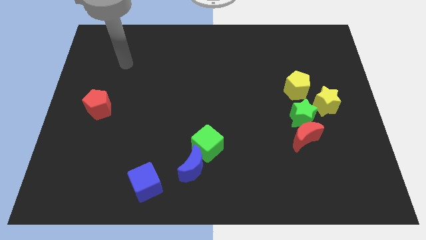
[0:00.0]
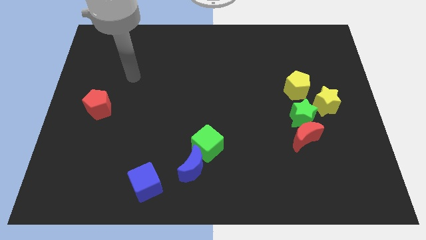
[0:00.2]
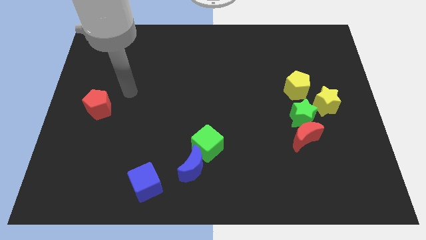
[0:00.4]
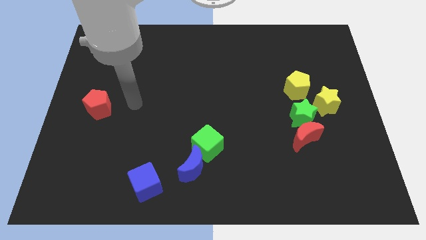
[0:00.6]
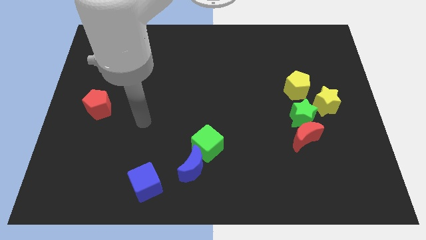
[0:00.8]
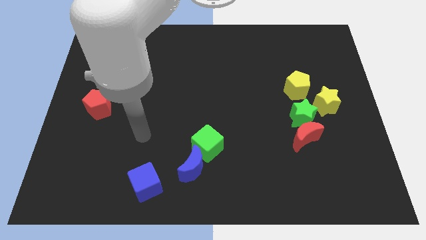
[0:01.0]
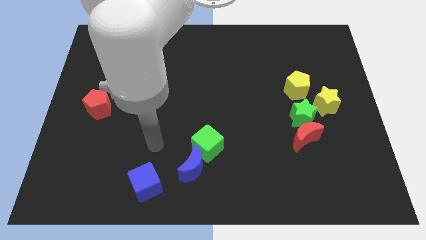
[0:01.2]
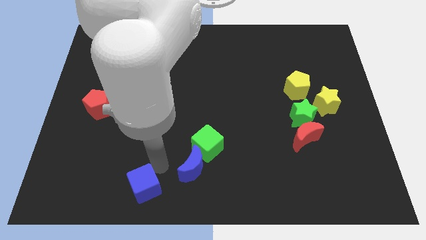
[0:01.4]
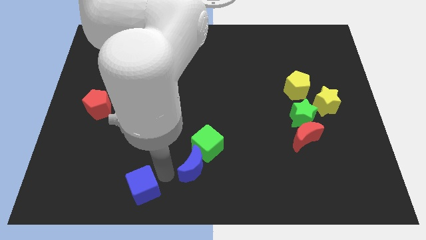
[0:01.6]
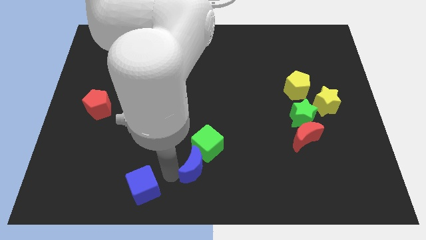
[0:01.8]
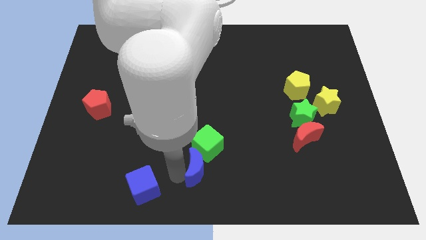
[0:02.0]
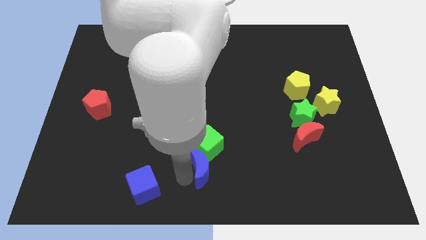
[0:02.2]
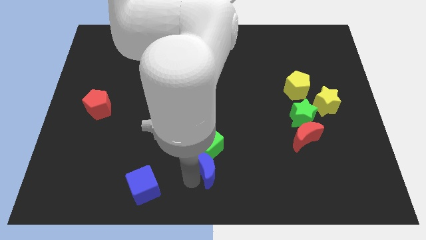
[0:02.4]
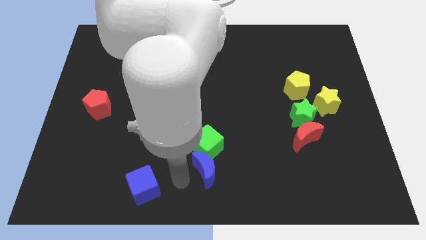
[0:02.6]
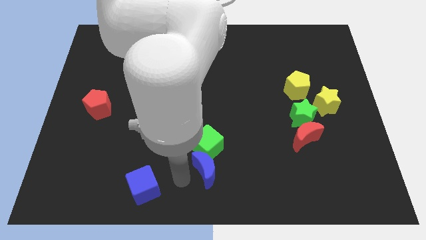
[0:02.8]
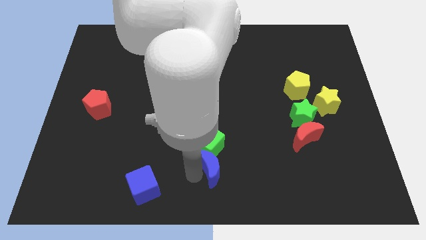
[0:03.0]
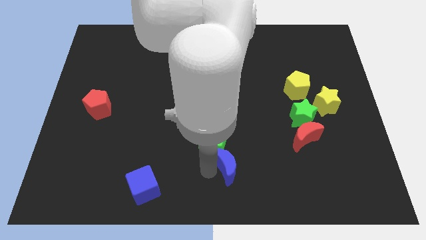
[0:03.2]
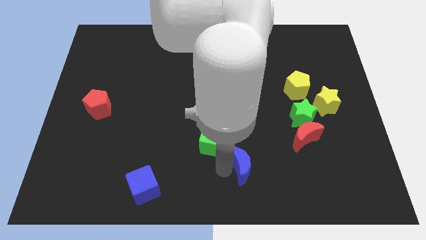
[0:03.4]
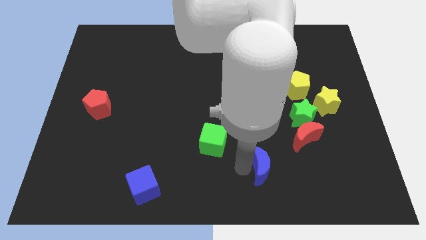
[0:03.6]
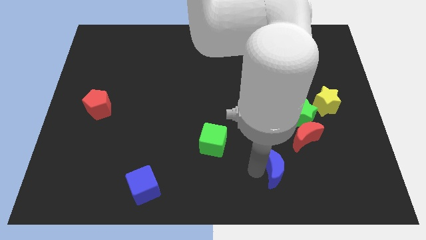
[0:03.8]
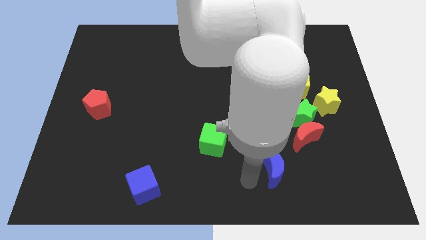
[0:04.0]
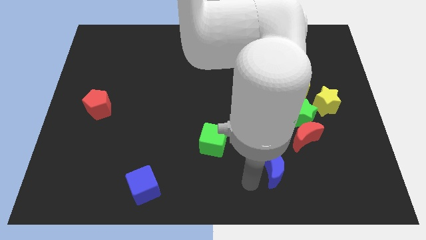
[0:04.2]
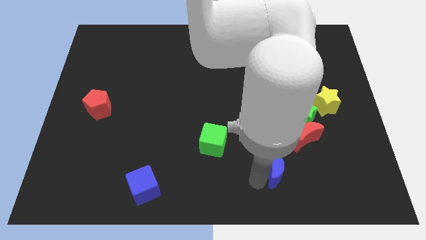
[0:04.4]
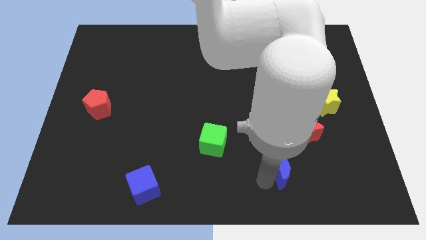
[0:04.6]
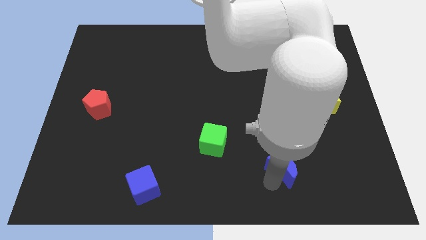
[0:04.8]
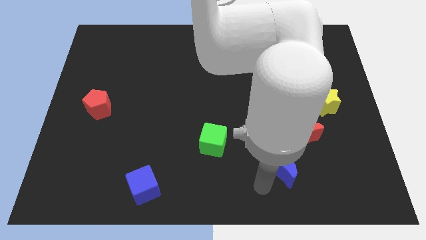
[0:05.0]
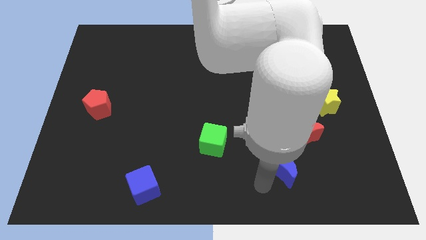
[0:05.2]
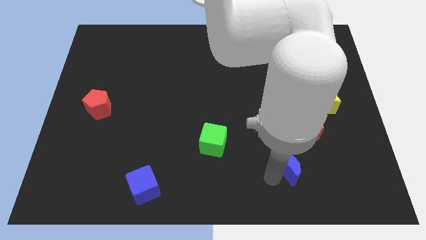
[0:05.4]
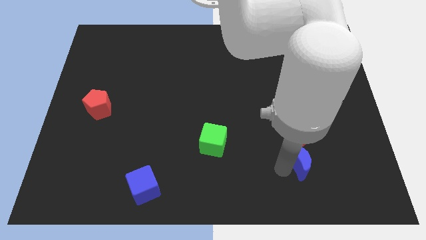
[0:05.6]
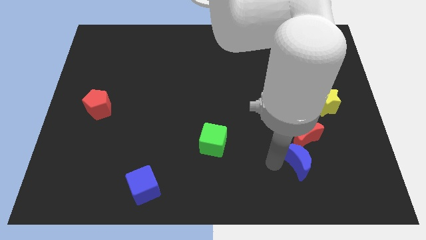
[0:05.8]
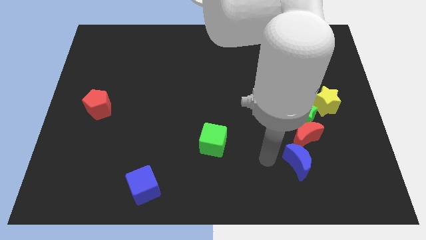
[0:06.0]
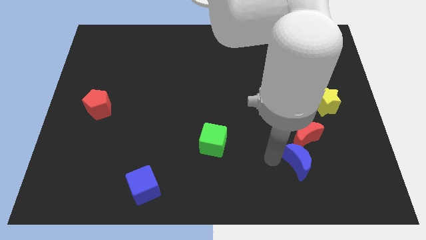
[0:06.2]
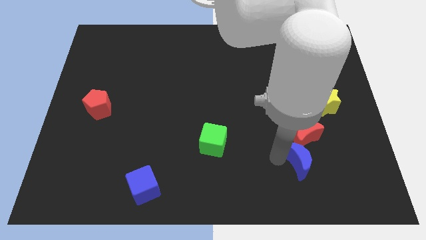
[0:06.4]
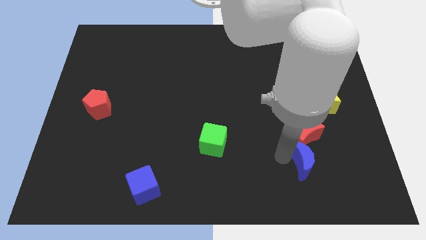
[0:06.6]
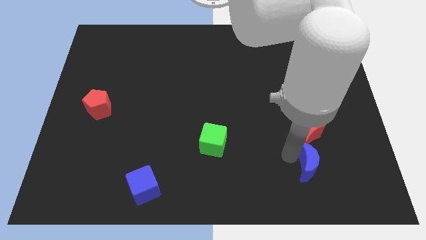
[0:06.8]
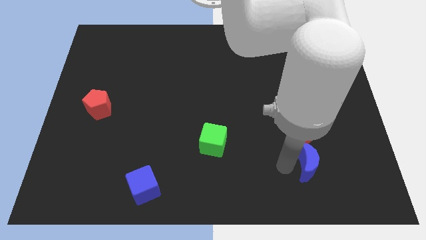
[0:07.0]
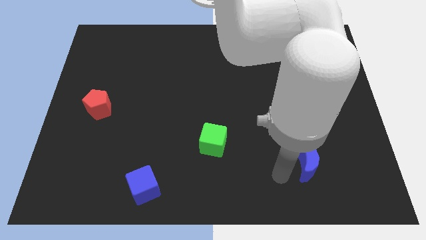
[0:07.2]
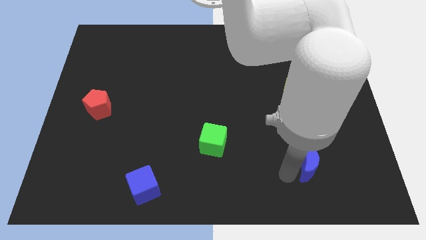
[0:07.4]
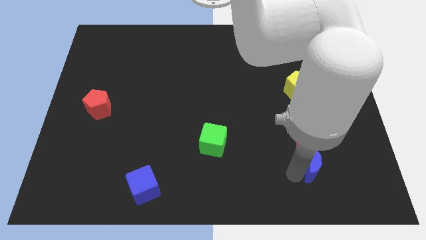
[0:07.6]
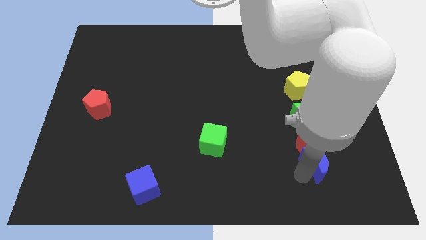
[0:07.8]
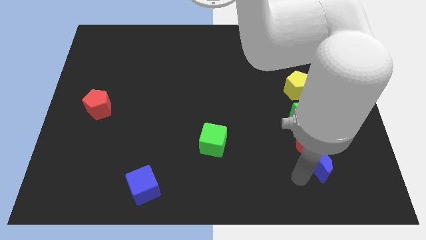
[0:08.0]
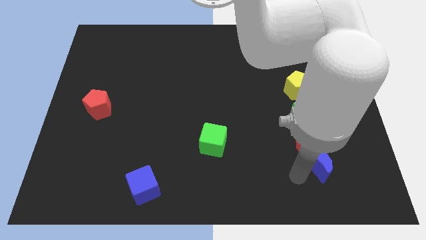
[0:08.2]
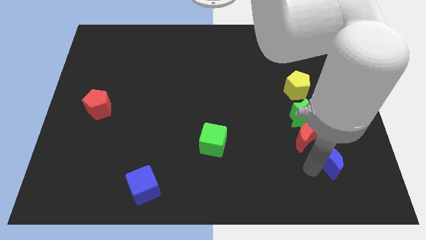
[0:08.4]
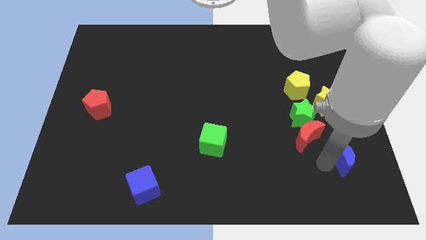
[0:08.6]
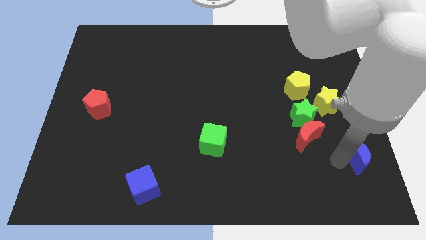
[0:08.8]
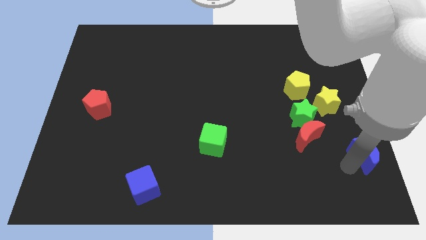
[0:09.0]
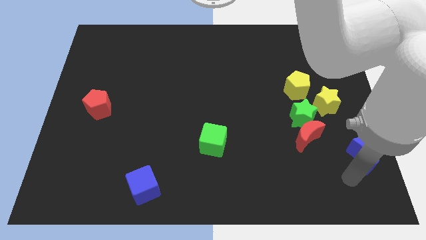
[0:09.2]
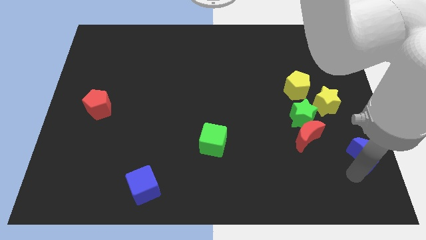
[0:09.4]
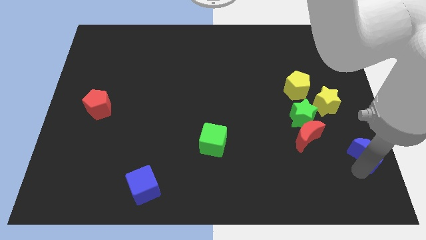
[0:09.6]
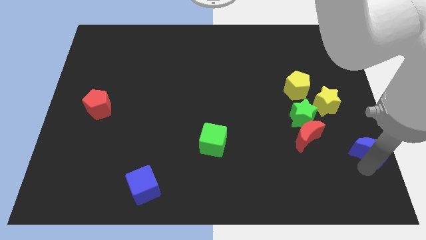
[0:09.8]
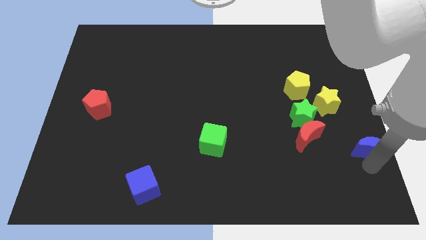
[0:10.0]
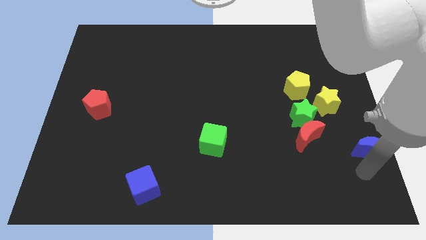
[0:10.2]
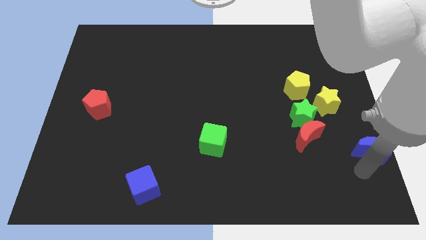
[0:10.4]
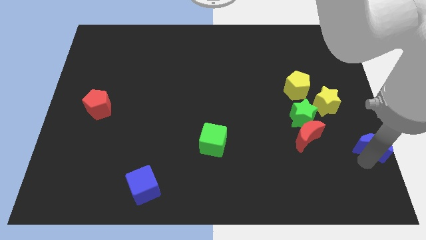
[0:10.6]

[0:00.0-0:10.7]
move the blue moon to the center right

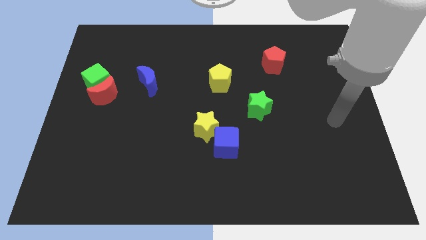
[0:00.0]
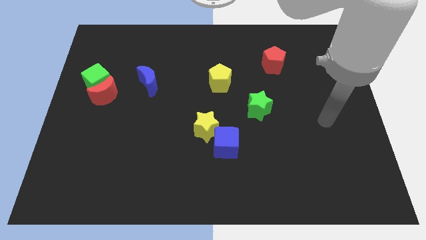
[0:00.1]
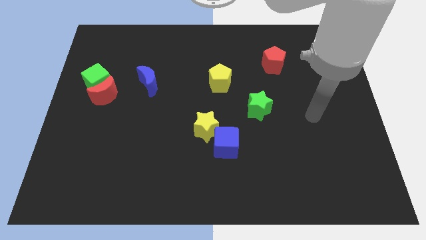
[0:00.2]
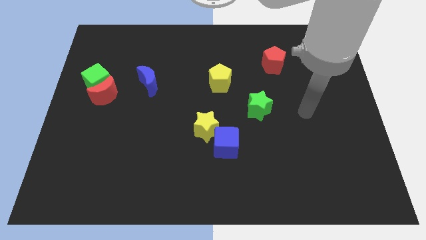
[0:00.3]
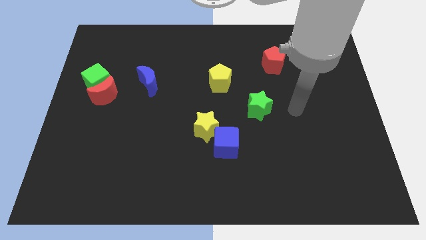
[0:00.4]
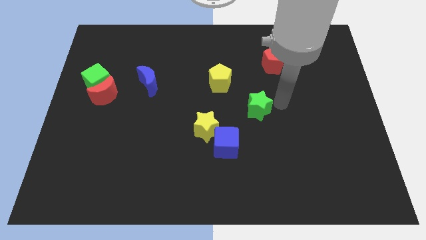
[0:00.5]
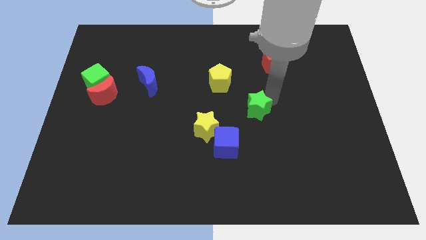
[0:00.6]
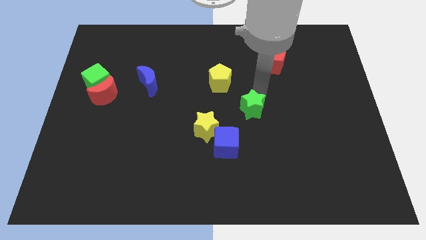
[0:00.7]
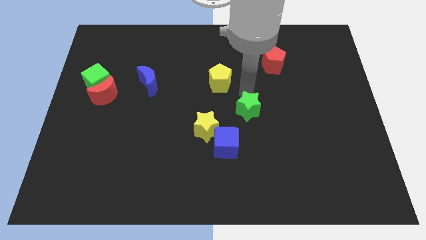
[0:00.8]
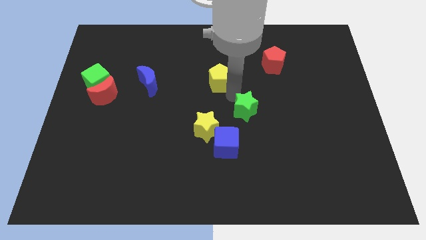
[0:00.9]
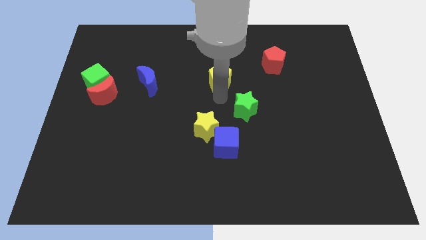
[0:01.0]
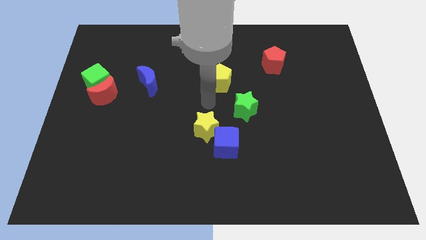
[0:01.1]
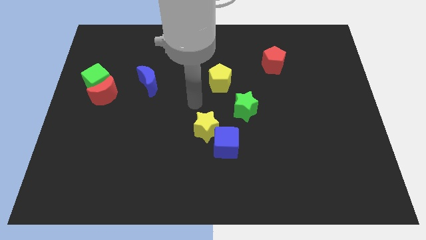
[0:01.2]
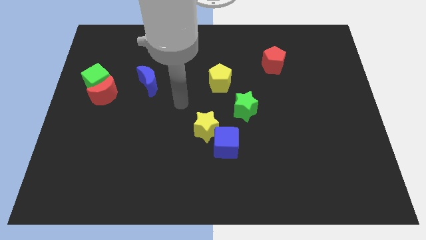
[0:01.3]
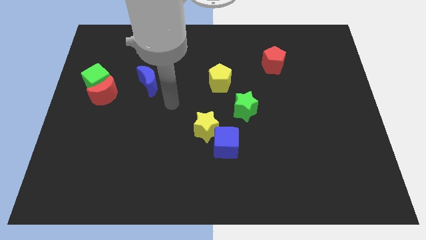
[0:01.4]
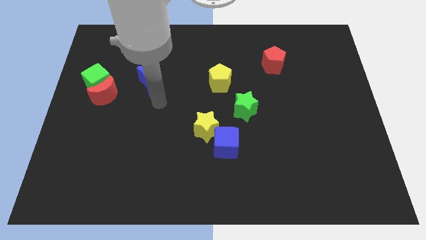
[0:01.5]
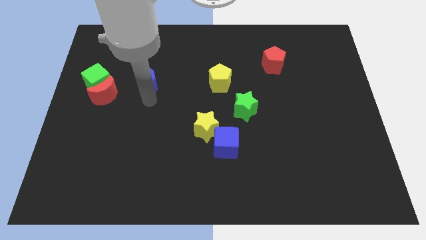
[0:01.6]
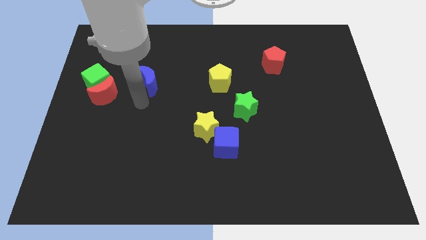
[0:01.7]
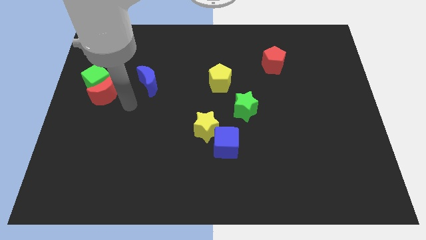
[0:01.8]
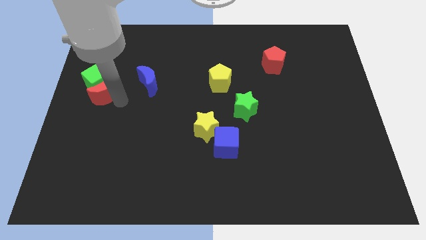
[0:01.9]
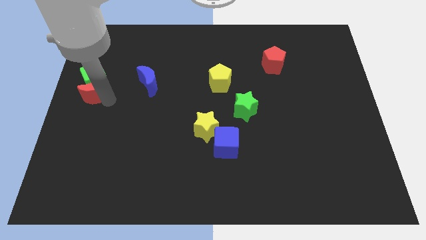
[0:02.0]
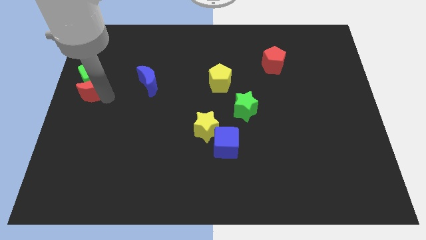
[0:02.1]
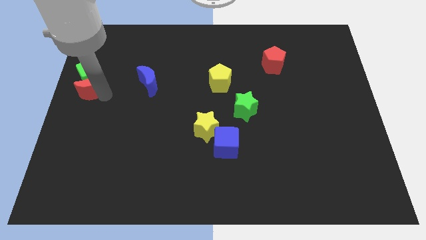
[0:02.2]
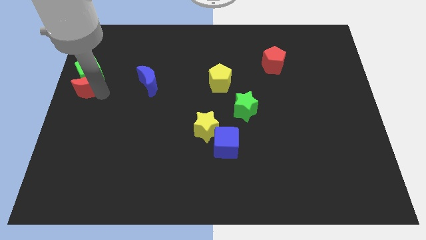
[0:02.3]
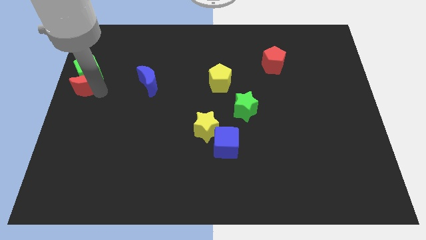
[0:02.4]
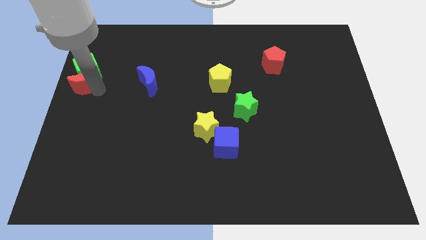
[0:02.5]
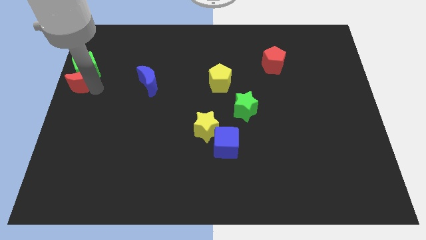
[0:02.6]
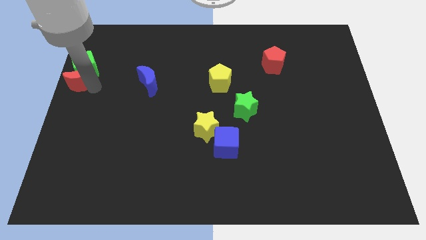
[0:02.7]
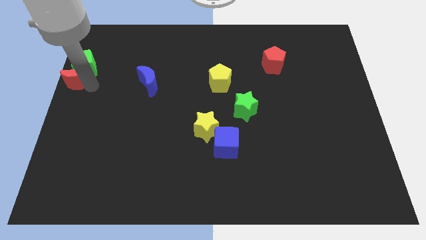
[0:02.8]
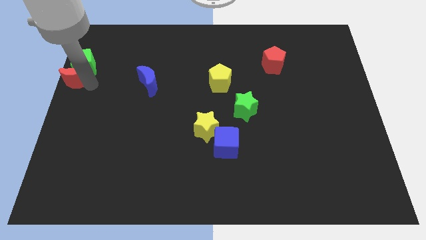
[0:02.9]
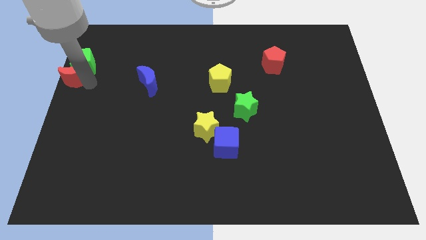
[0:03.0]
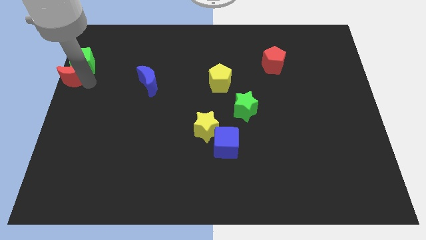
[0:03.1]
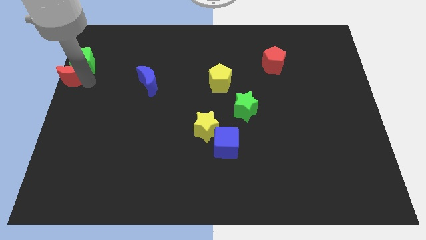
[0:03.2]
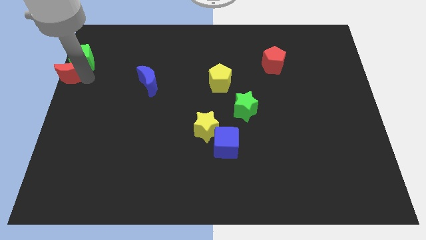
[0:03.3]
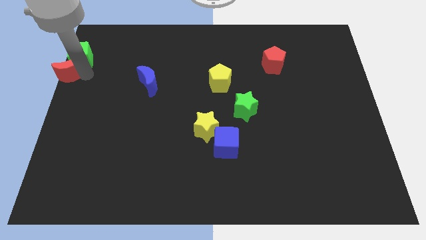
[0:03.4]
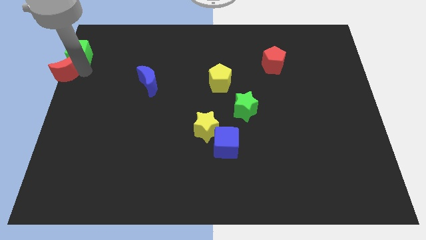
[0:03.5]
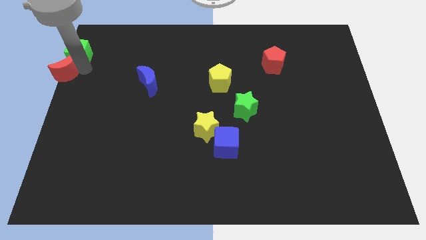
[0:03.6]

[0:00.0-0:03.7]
slide the green cube to the top left of the board
